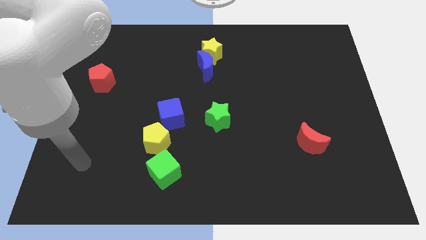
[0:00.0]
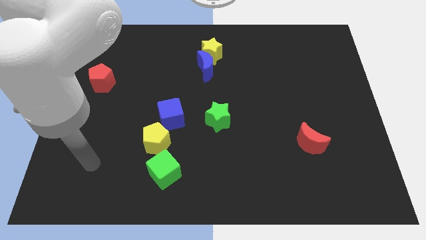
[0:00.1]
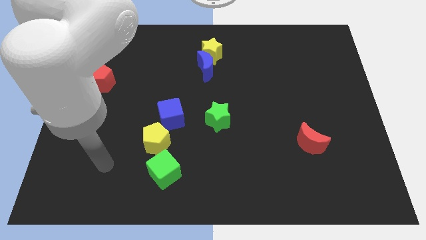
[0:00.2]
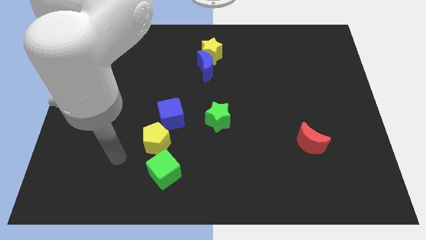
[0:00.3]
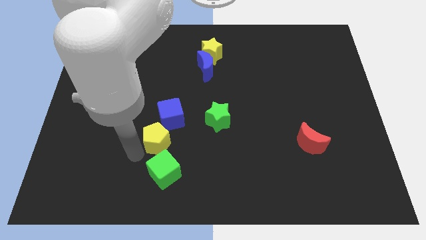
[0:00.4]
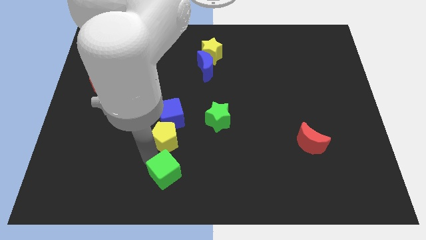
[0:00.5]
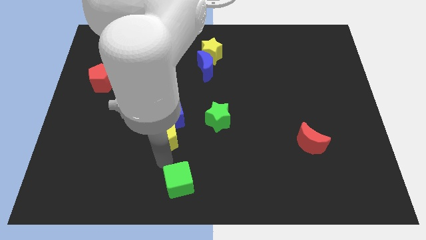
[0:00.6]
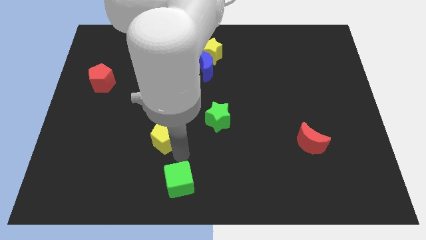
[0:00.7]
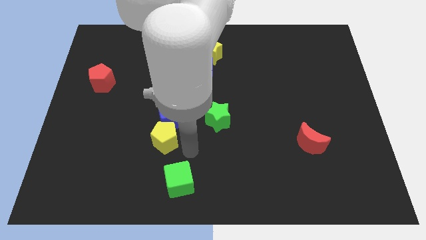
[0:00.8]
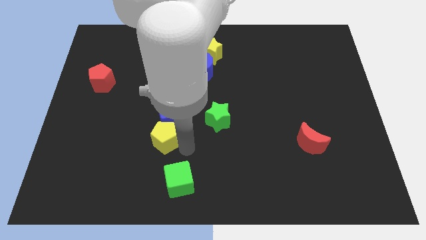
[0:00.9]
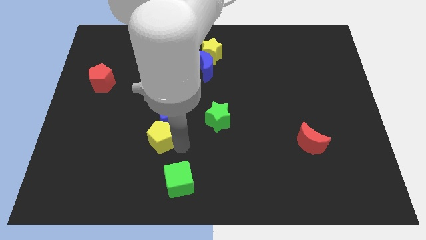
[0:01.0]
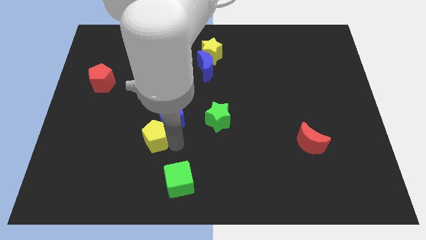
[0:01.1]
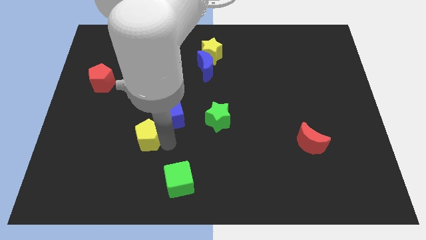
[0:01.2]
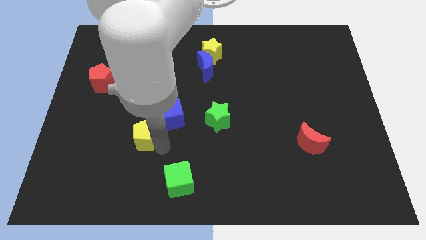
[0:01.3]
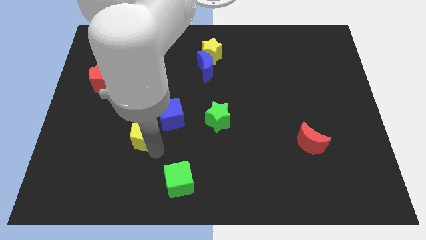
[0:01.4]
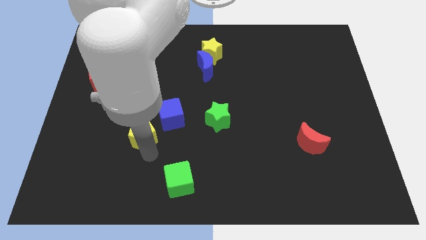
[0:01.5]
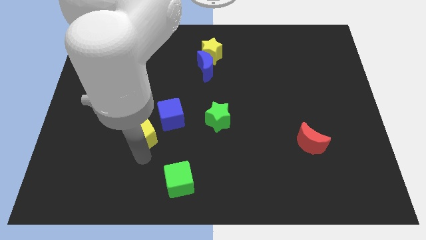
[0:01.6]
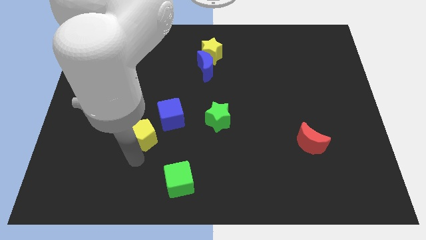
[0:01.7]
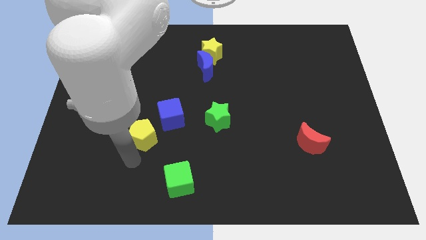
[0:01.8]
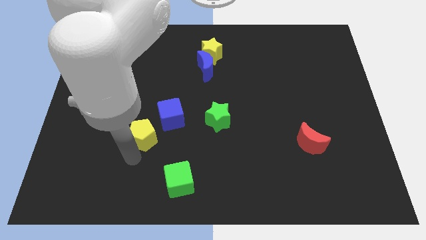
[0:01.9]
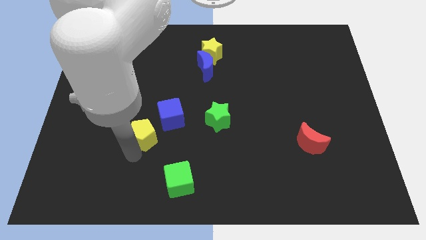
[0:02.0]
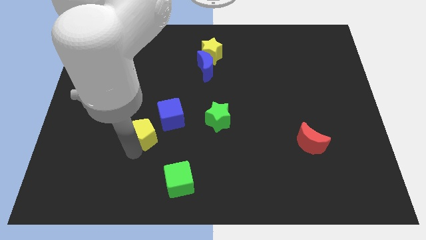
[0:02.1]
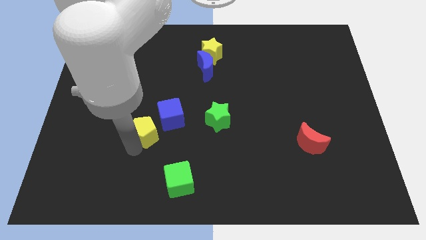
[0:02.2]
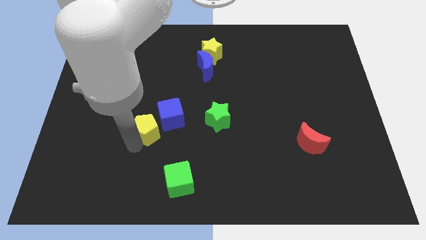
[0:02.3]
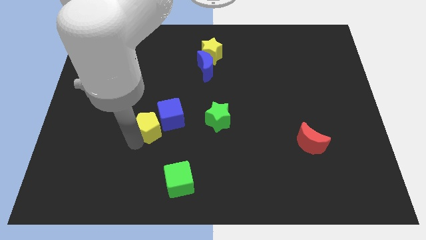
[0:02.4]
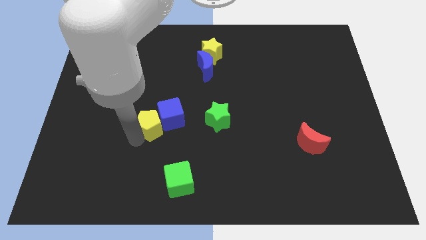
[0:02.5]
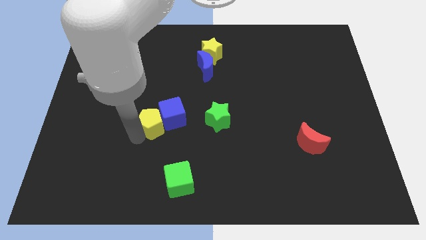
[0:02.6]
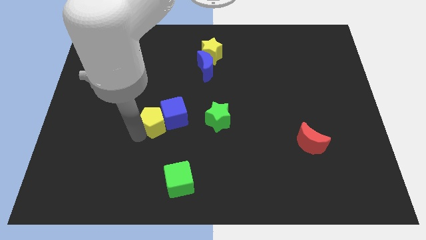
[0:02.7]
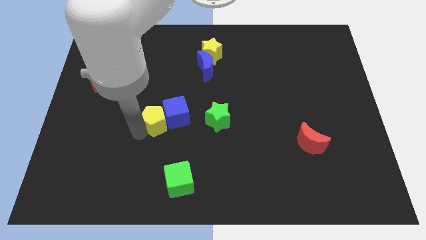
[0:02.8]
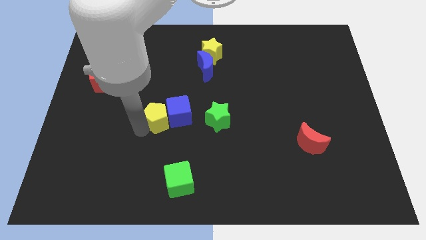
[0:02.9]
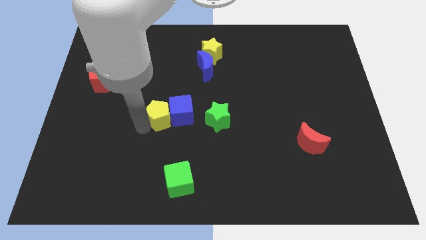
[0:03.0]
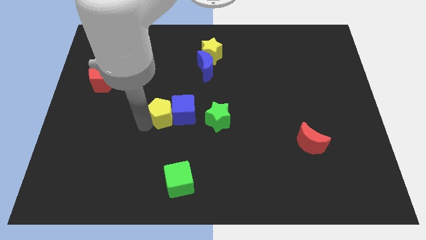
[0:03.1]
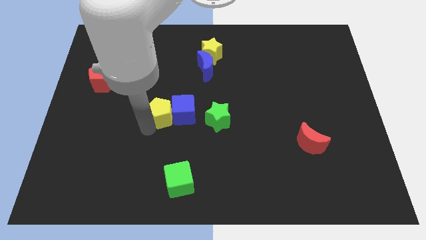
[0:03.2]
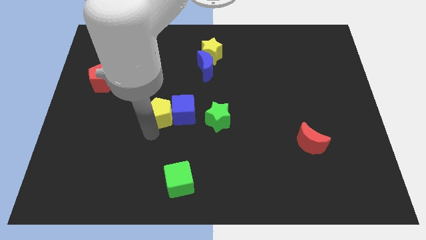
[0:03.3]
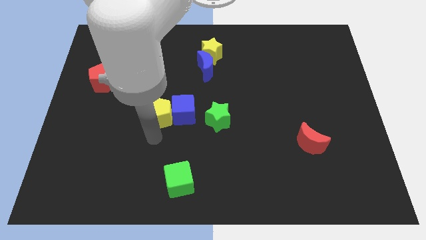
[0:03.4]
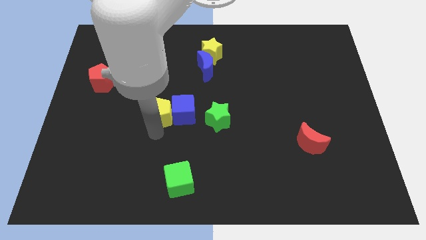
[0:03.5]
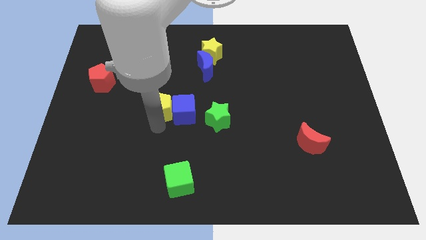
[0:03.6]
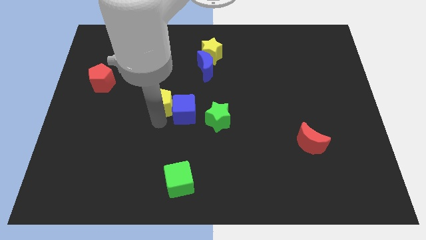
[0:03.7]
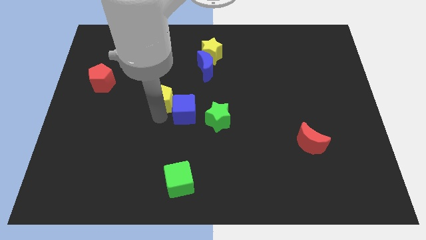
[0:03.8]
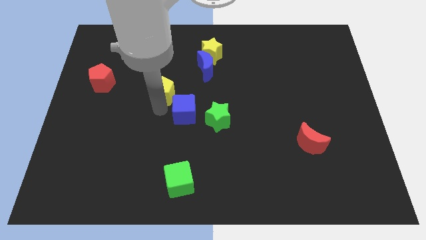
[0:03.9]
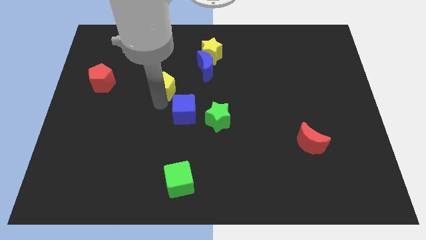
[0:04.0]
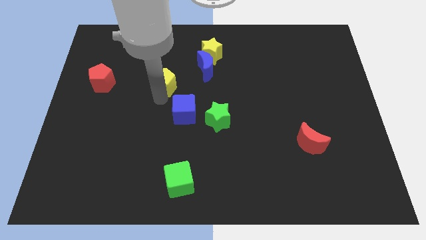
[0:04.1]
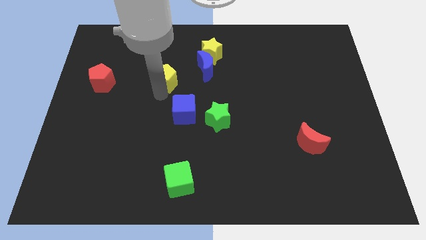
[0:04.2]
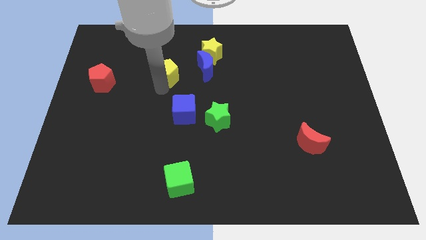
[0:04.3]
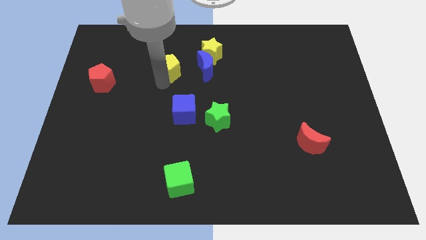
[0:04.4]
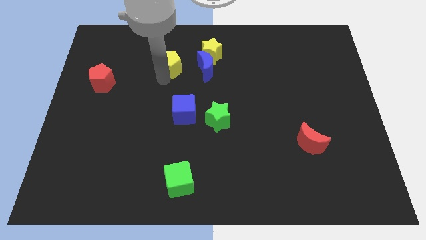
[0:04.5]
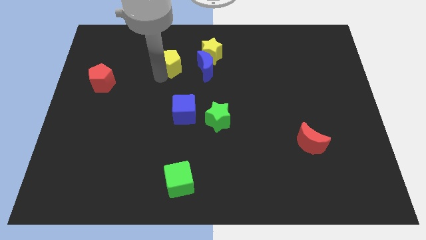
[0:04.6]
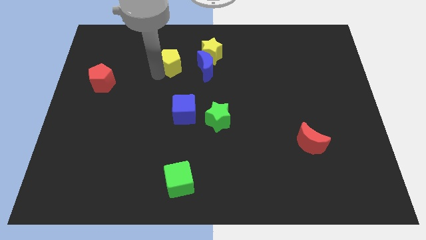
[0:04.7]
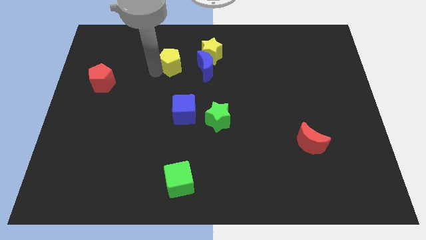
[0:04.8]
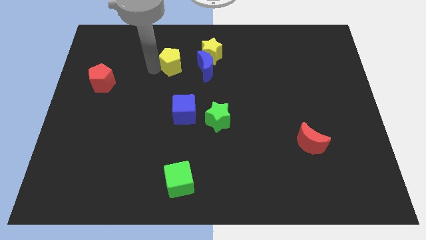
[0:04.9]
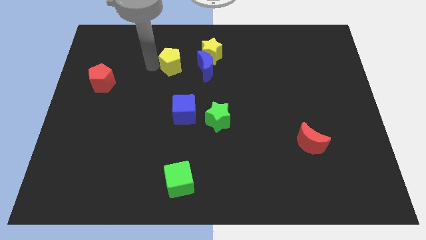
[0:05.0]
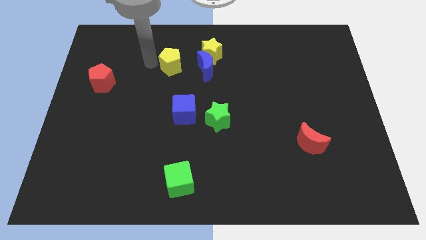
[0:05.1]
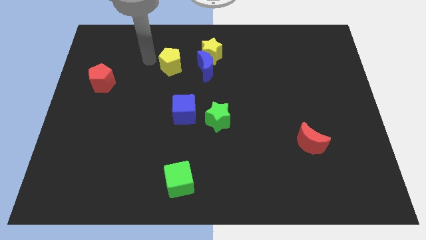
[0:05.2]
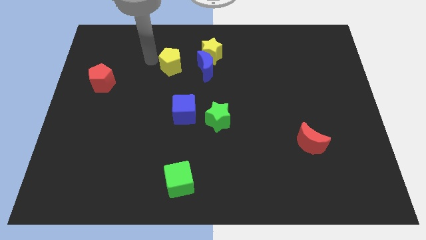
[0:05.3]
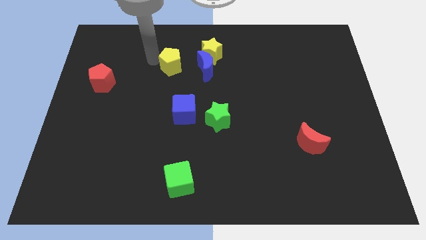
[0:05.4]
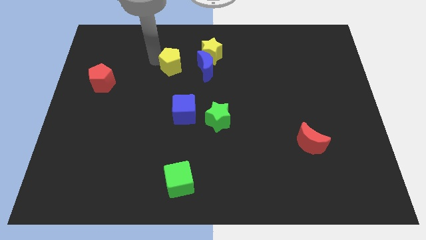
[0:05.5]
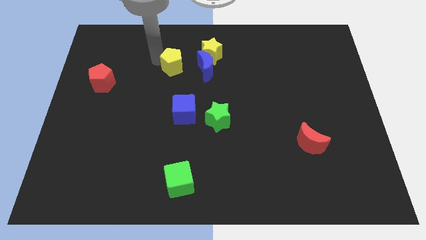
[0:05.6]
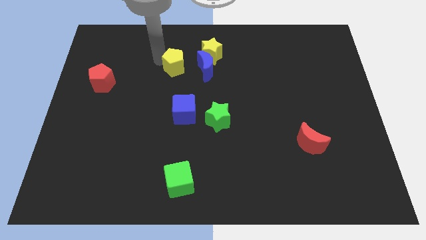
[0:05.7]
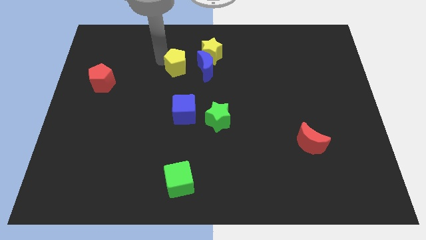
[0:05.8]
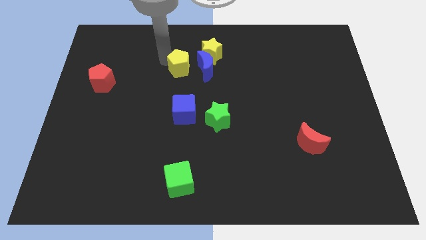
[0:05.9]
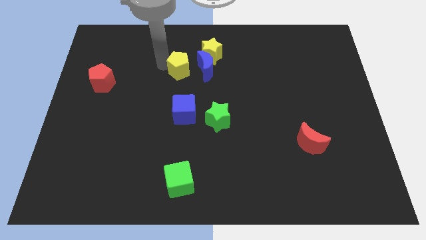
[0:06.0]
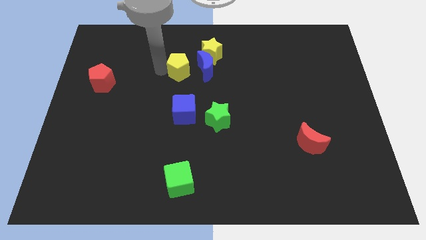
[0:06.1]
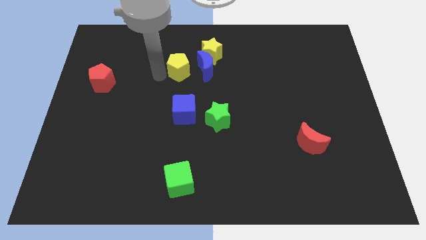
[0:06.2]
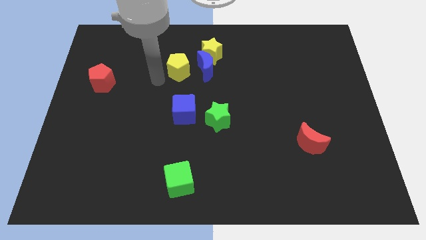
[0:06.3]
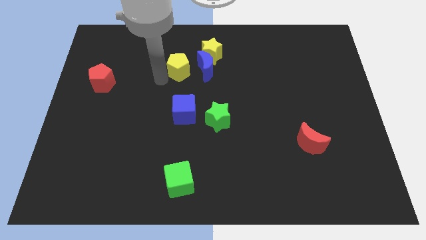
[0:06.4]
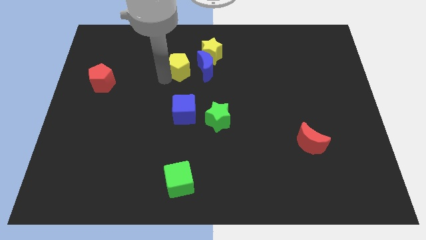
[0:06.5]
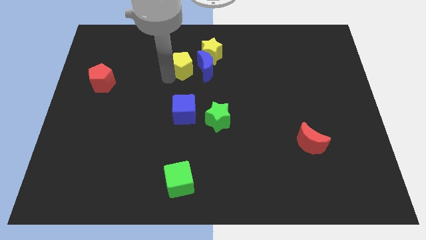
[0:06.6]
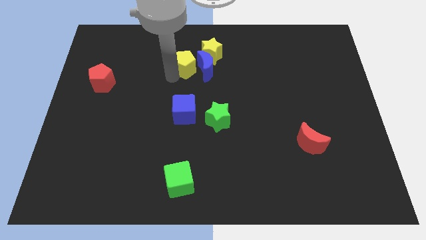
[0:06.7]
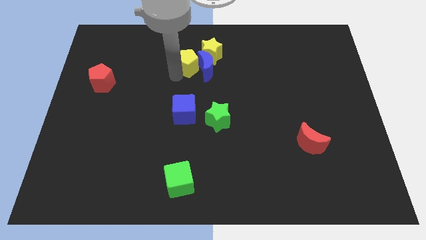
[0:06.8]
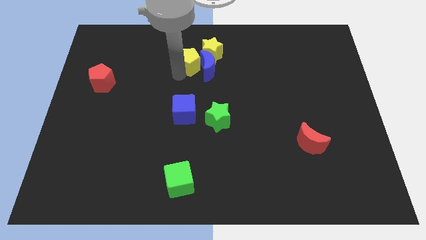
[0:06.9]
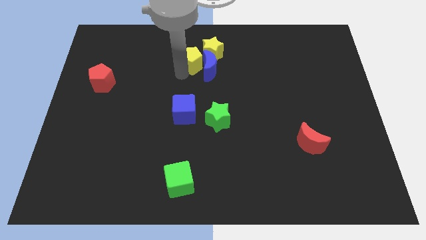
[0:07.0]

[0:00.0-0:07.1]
move the yellow pentagon next to the yellow star

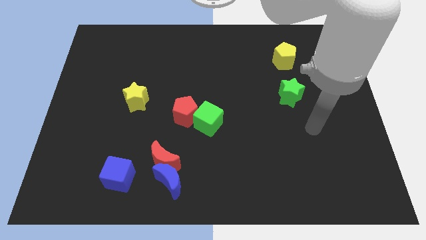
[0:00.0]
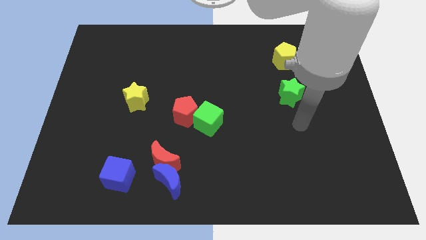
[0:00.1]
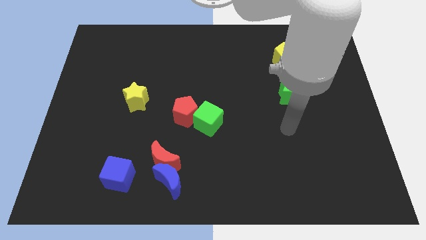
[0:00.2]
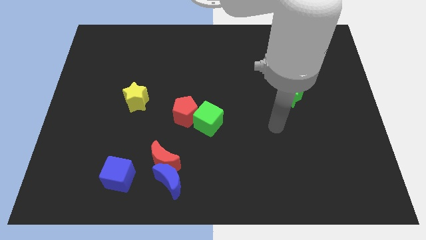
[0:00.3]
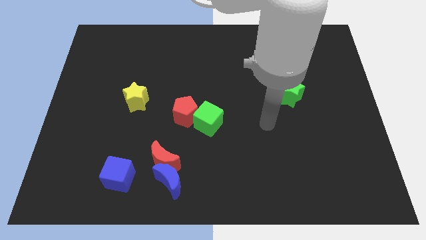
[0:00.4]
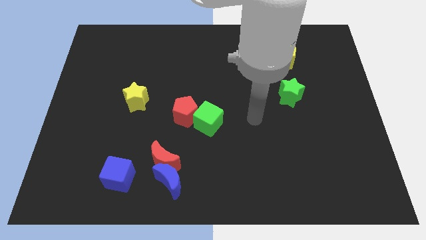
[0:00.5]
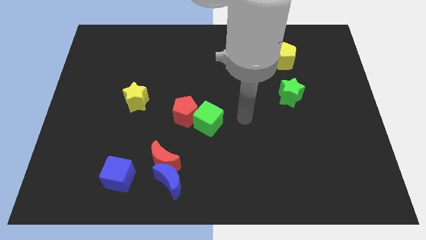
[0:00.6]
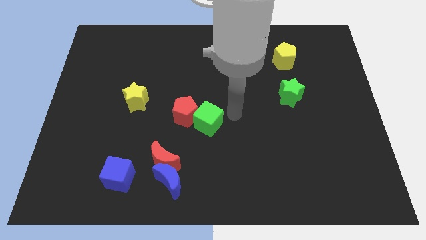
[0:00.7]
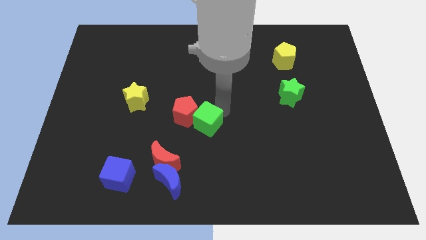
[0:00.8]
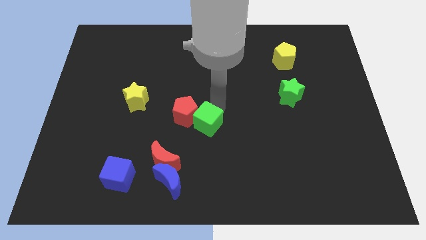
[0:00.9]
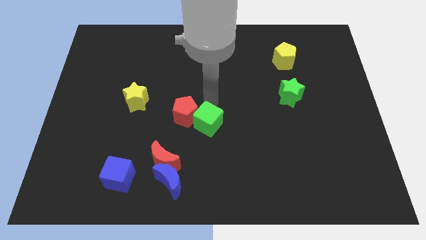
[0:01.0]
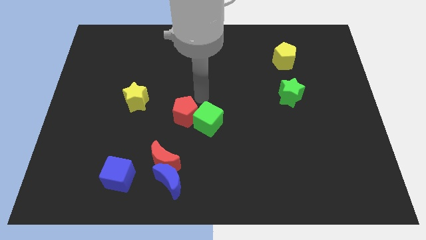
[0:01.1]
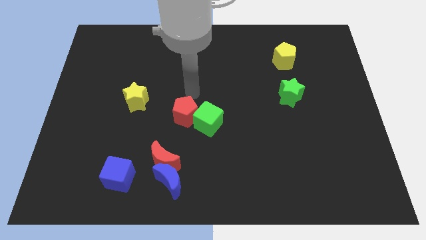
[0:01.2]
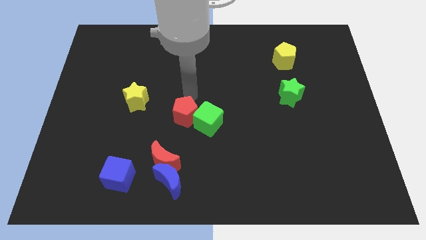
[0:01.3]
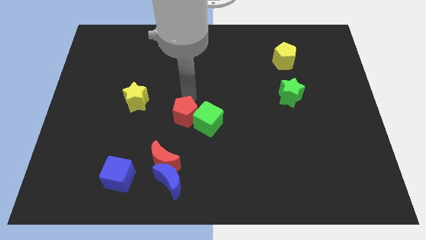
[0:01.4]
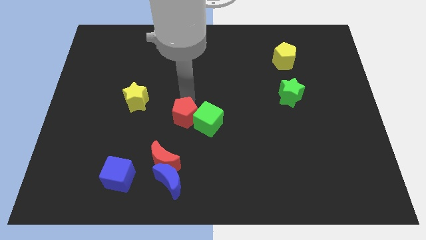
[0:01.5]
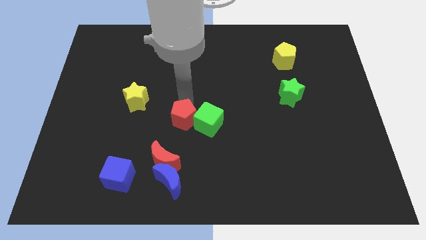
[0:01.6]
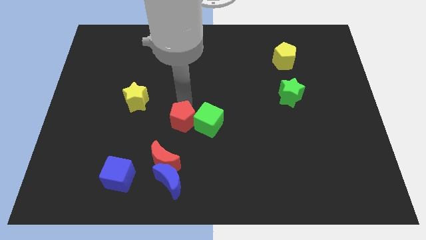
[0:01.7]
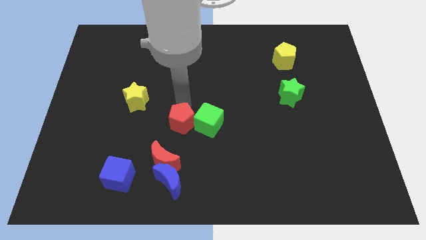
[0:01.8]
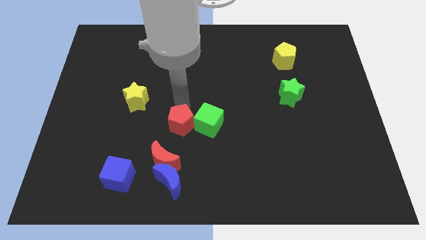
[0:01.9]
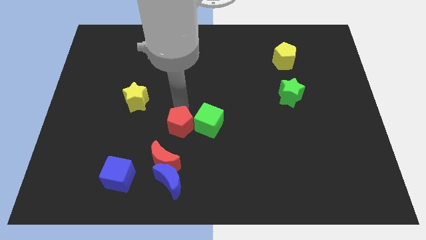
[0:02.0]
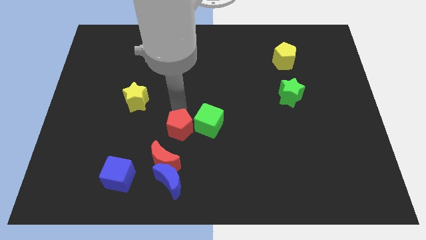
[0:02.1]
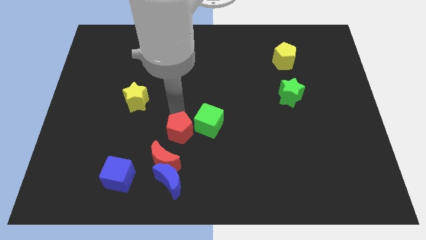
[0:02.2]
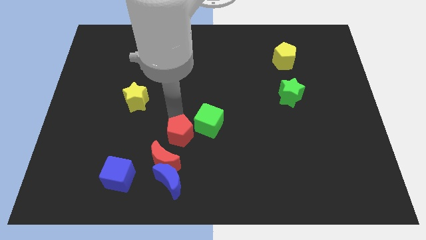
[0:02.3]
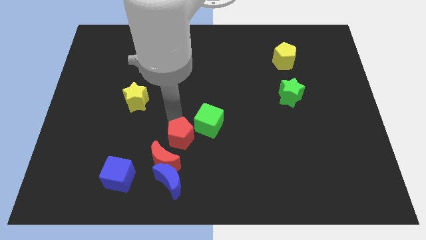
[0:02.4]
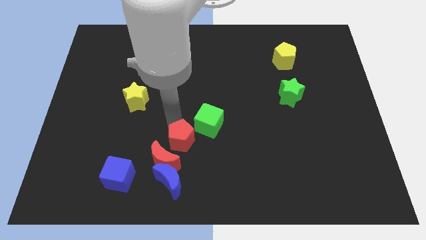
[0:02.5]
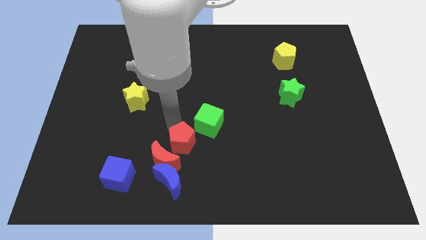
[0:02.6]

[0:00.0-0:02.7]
put the red pentagon next to the red moon
